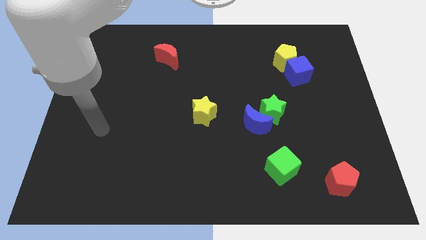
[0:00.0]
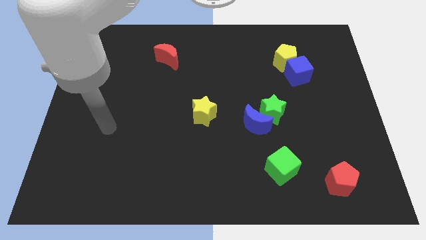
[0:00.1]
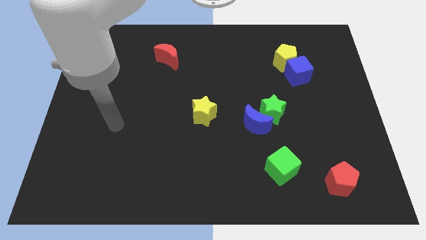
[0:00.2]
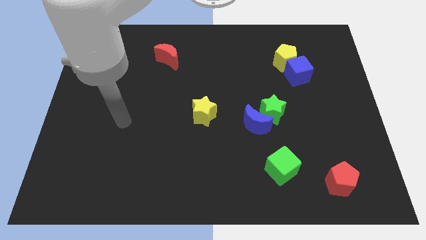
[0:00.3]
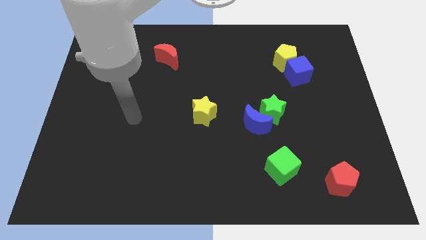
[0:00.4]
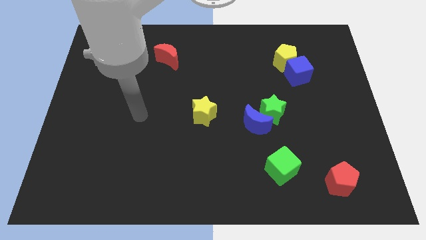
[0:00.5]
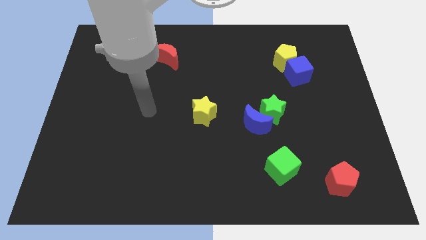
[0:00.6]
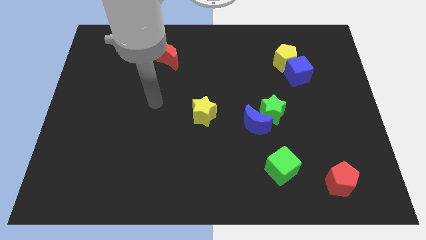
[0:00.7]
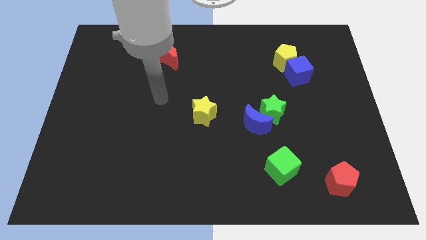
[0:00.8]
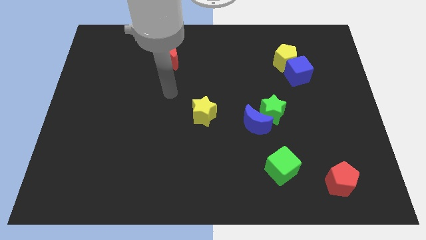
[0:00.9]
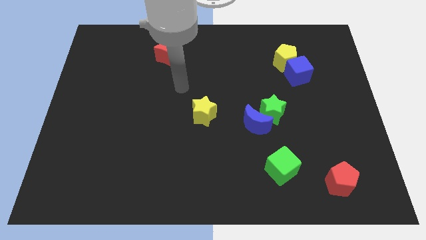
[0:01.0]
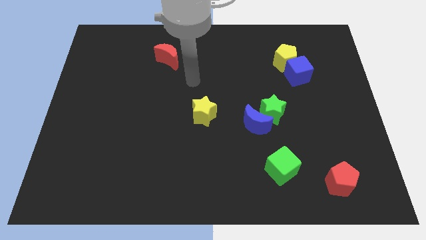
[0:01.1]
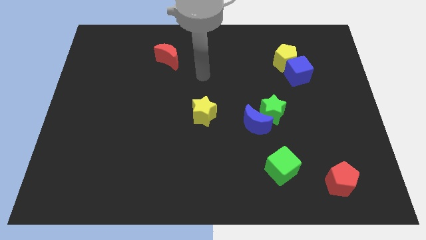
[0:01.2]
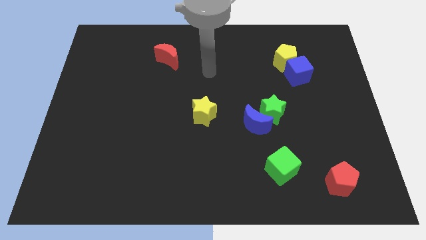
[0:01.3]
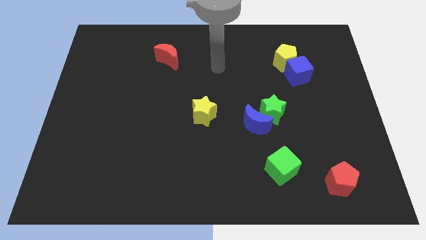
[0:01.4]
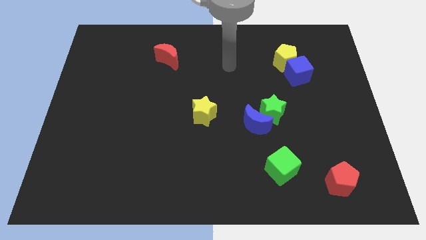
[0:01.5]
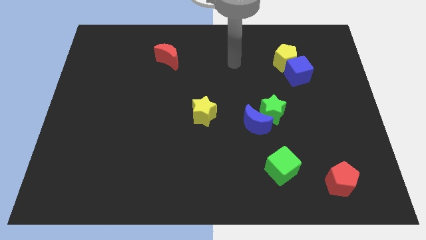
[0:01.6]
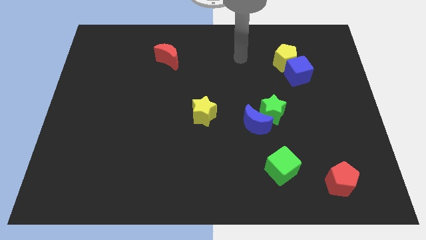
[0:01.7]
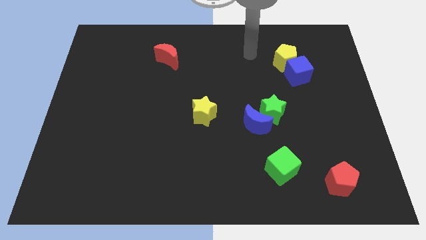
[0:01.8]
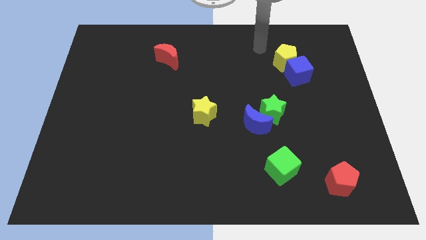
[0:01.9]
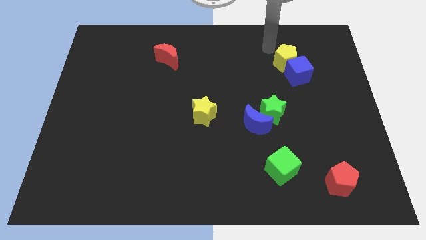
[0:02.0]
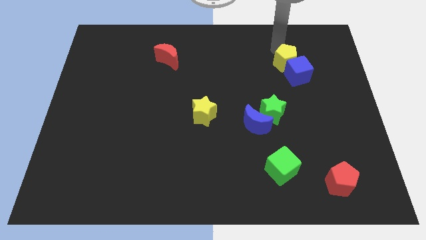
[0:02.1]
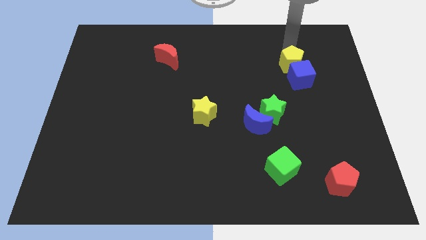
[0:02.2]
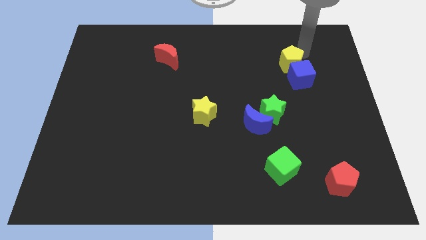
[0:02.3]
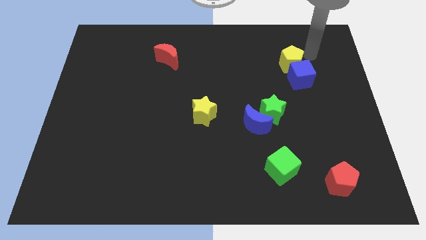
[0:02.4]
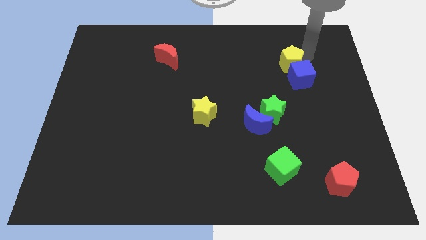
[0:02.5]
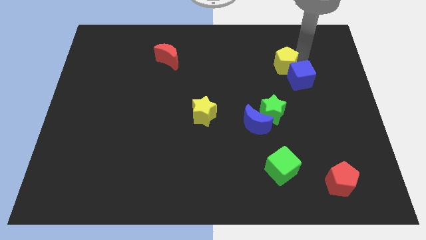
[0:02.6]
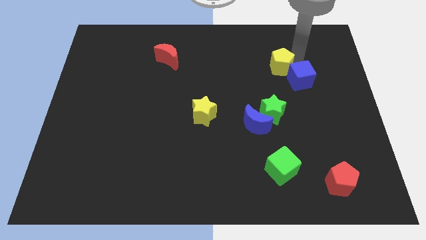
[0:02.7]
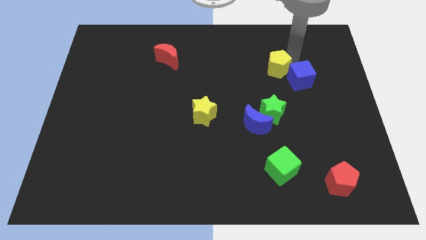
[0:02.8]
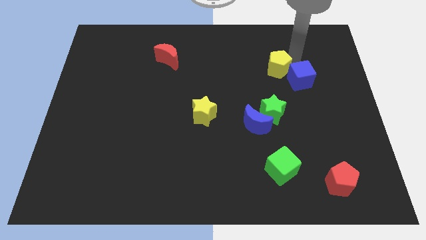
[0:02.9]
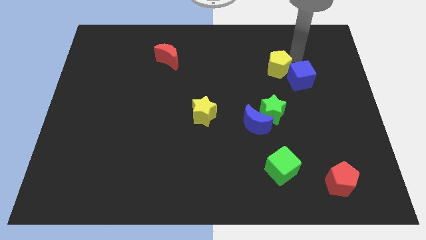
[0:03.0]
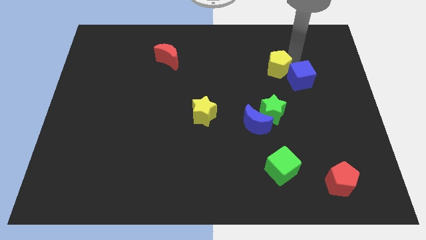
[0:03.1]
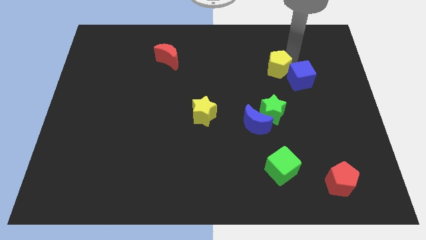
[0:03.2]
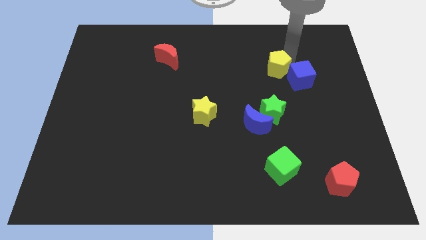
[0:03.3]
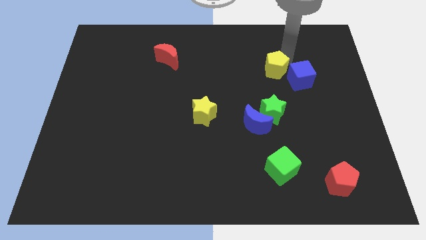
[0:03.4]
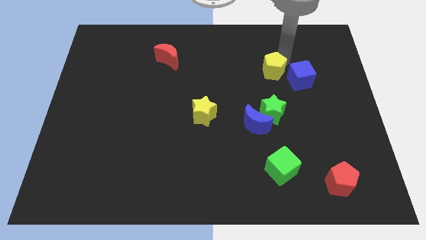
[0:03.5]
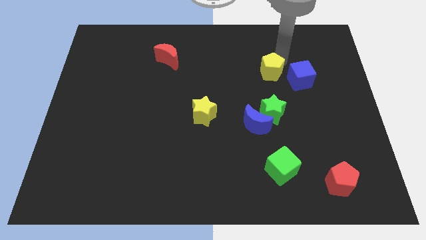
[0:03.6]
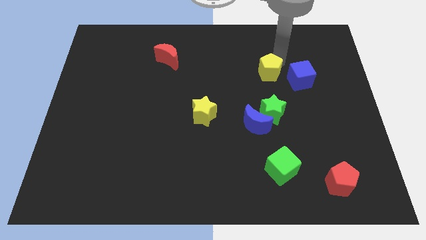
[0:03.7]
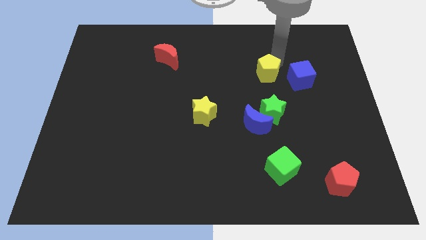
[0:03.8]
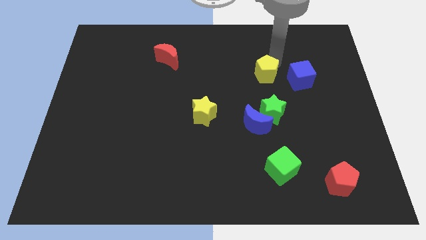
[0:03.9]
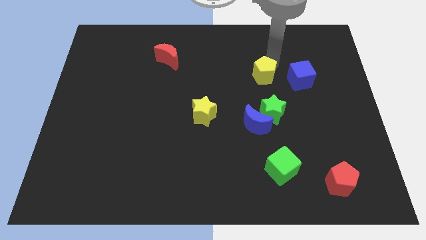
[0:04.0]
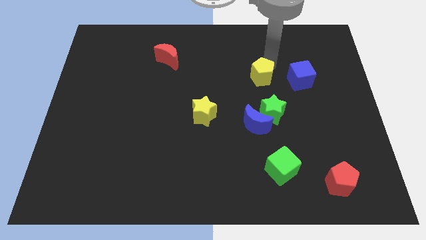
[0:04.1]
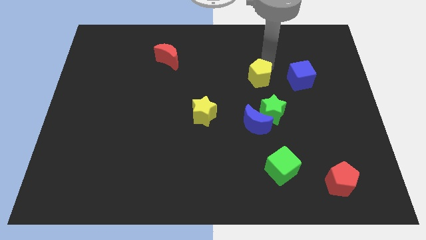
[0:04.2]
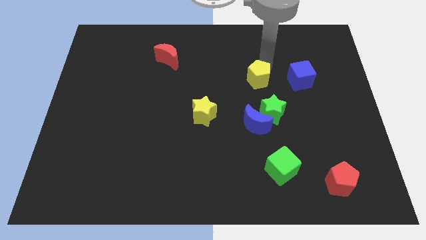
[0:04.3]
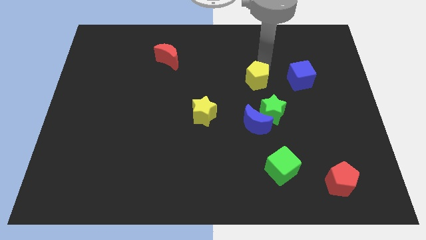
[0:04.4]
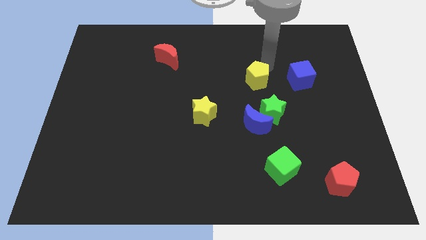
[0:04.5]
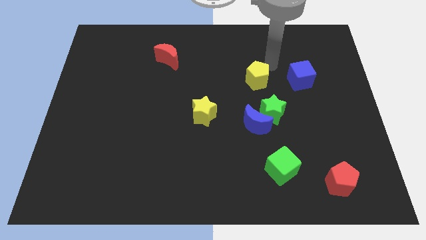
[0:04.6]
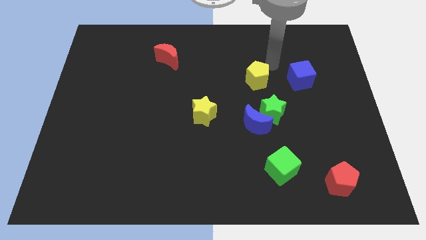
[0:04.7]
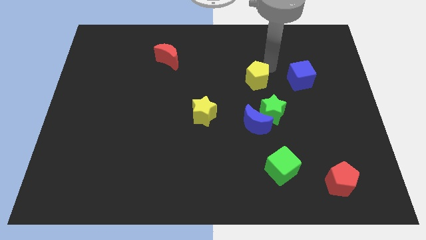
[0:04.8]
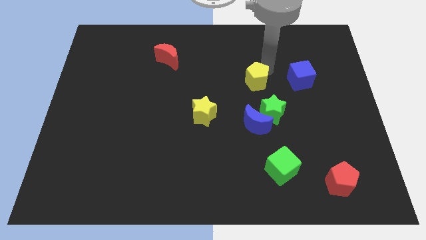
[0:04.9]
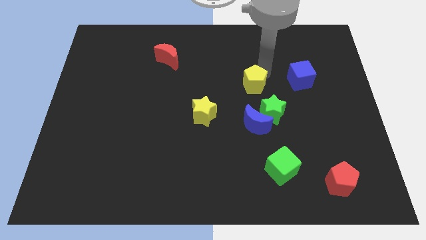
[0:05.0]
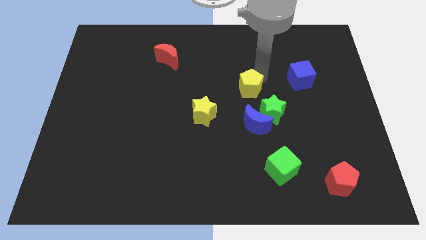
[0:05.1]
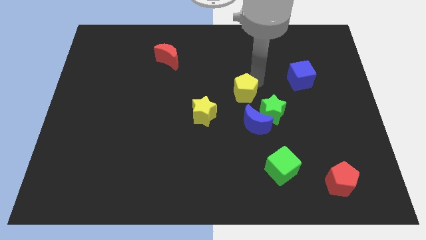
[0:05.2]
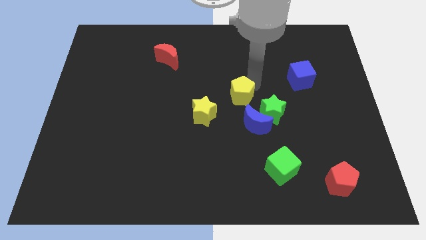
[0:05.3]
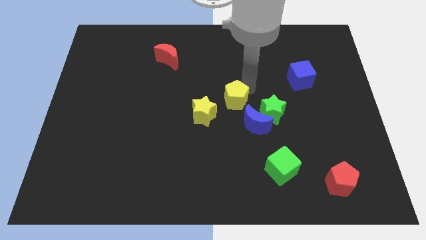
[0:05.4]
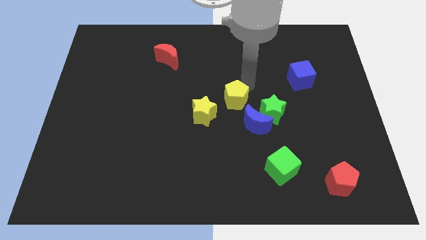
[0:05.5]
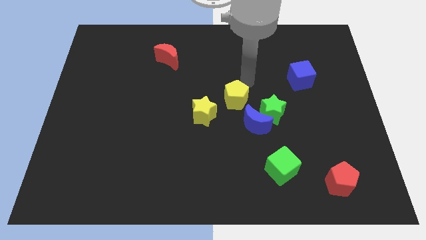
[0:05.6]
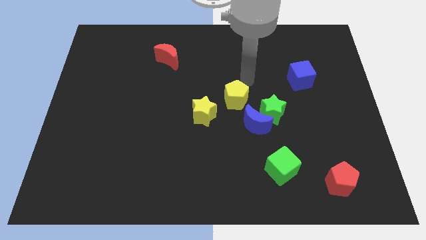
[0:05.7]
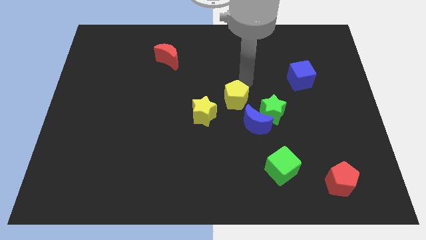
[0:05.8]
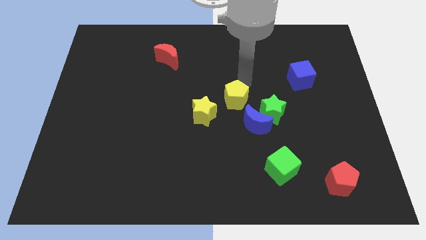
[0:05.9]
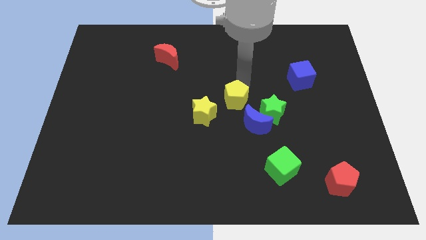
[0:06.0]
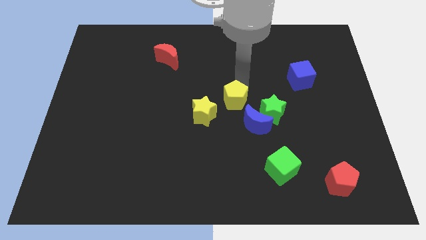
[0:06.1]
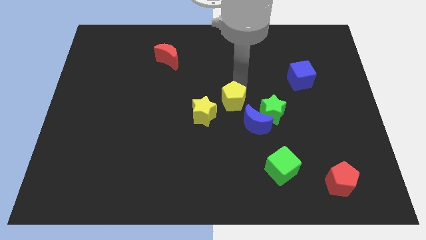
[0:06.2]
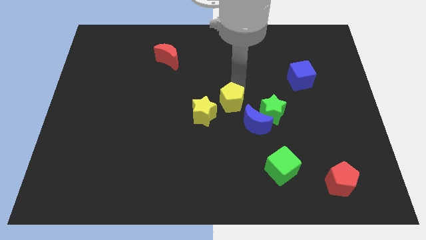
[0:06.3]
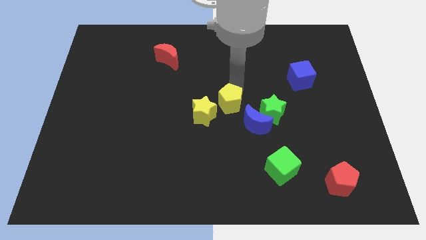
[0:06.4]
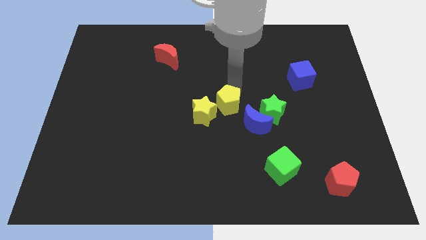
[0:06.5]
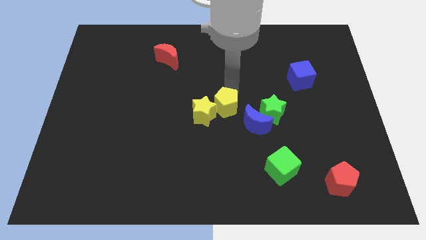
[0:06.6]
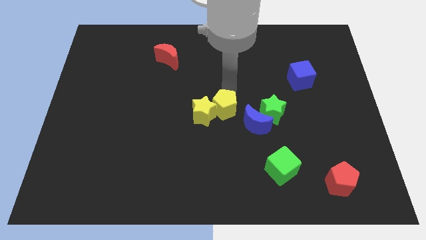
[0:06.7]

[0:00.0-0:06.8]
slide the yellow pentagon to the bottom right of the yellow star
